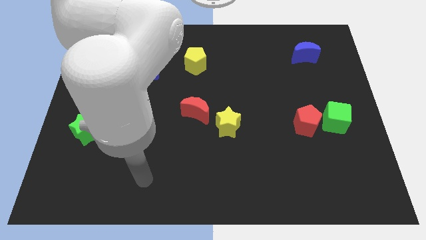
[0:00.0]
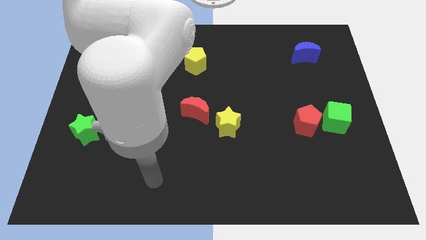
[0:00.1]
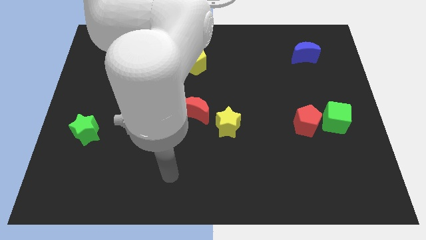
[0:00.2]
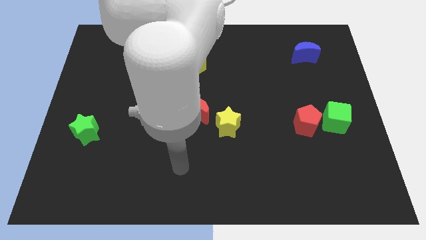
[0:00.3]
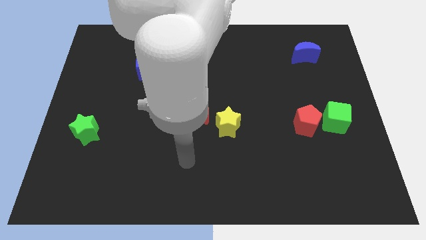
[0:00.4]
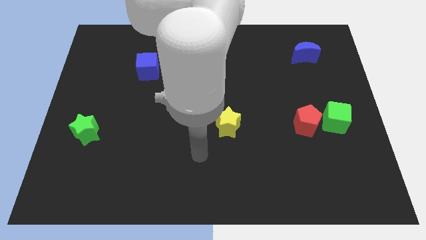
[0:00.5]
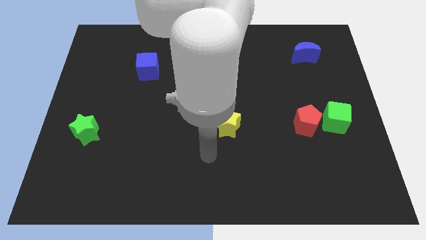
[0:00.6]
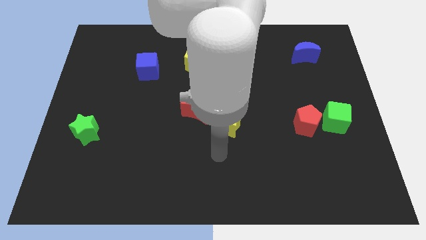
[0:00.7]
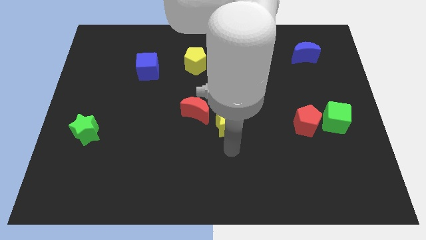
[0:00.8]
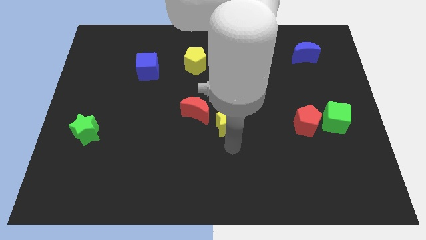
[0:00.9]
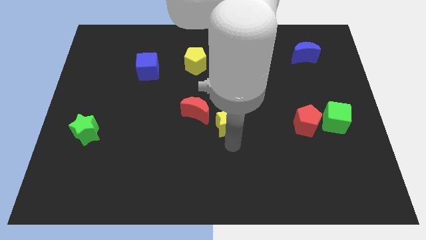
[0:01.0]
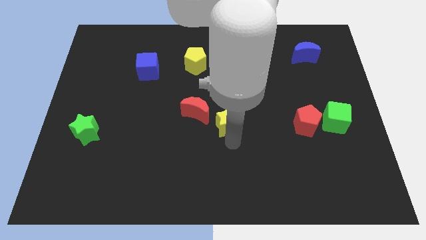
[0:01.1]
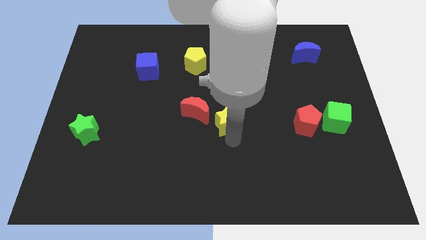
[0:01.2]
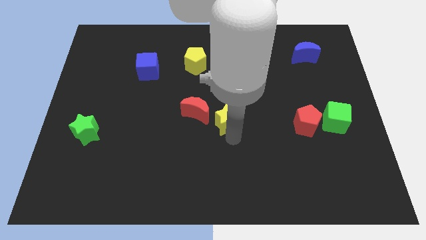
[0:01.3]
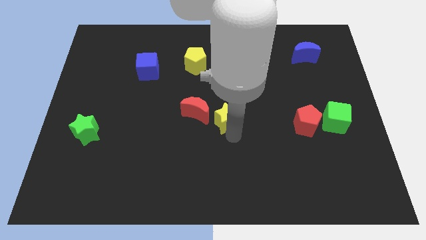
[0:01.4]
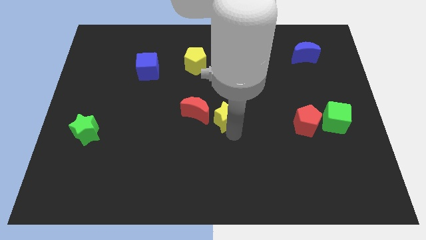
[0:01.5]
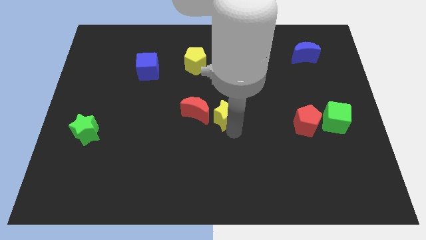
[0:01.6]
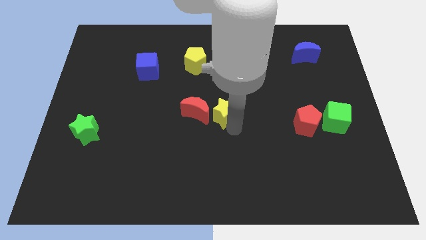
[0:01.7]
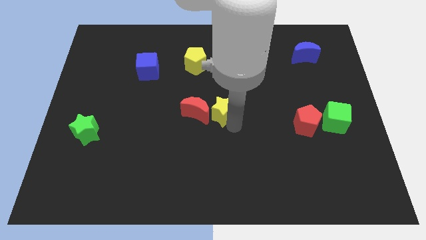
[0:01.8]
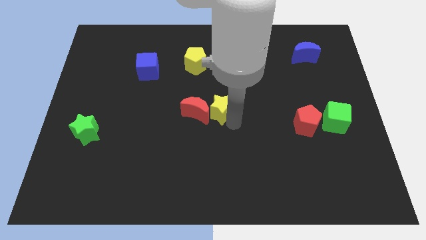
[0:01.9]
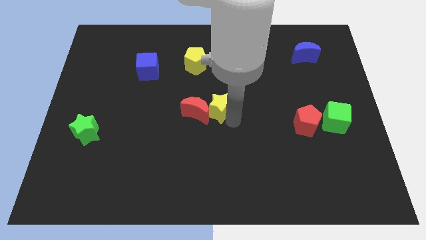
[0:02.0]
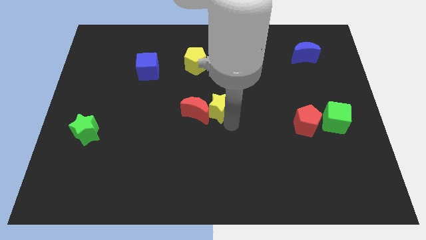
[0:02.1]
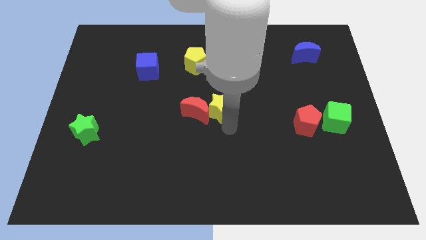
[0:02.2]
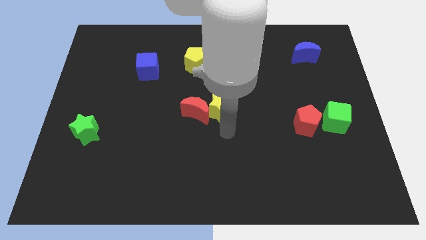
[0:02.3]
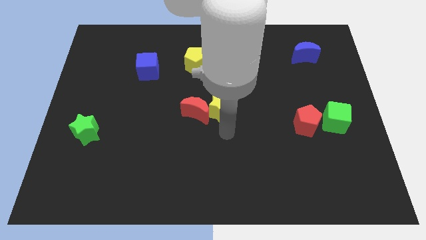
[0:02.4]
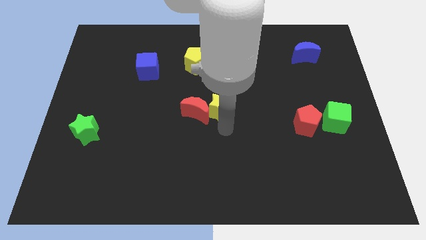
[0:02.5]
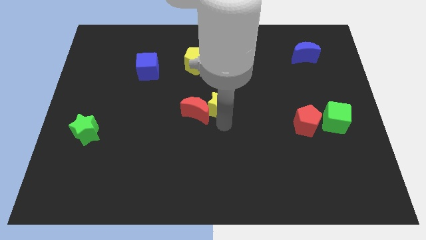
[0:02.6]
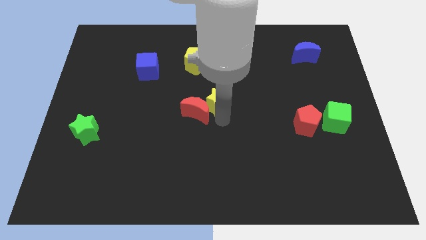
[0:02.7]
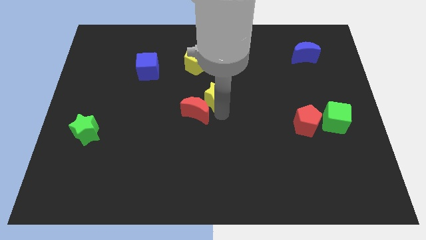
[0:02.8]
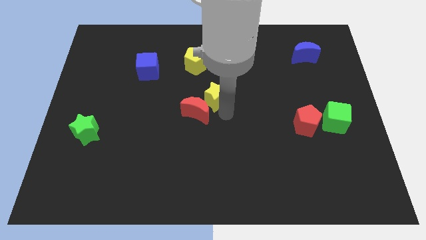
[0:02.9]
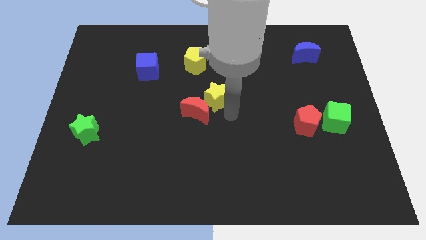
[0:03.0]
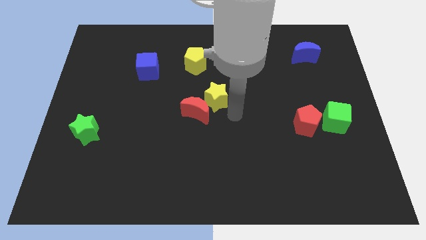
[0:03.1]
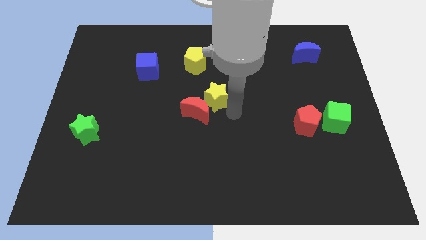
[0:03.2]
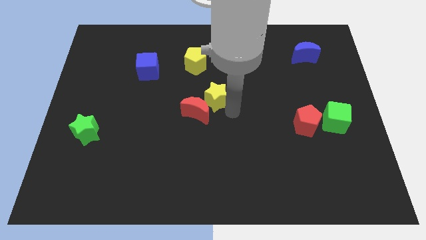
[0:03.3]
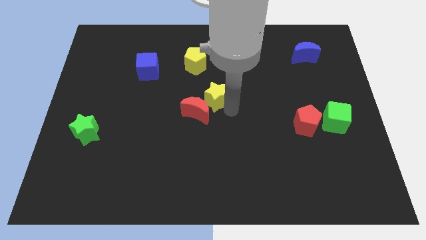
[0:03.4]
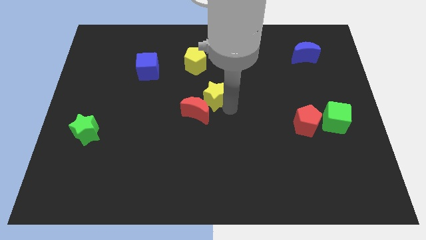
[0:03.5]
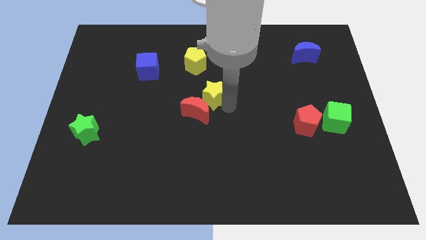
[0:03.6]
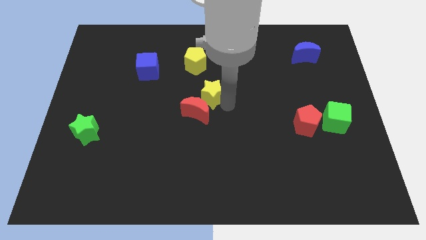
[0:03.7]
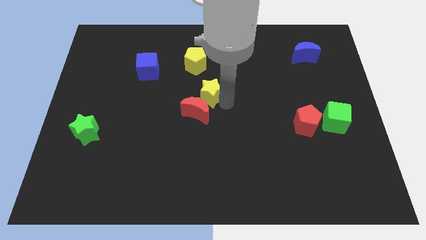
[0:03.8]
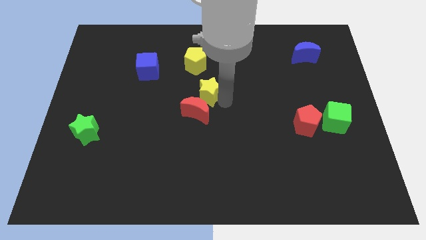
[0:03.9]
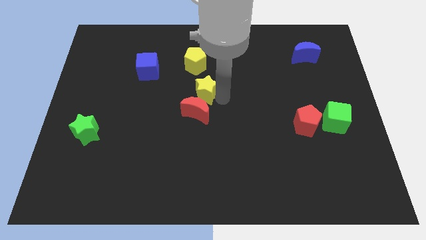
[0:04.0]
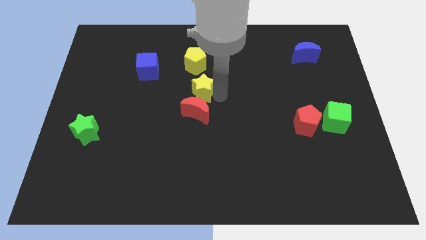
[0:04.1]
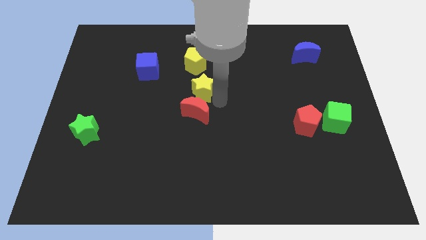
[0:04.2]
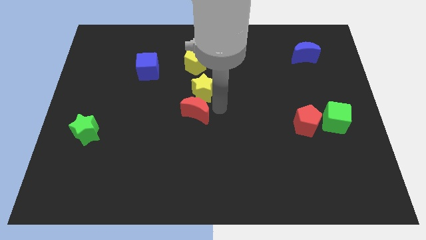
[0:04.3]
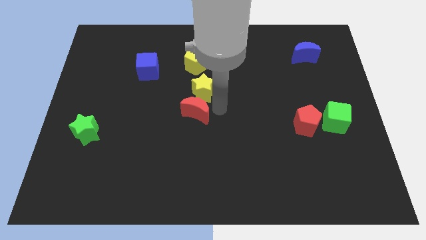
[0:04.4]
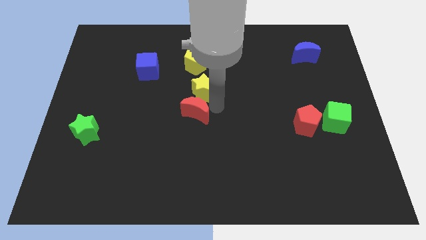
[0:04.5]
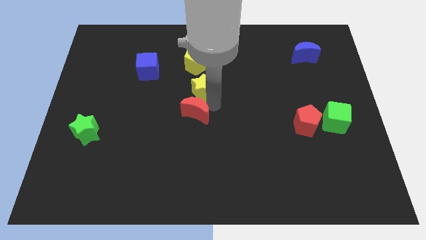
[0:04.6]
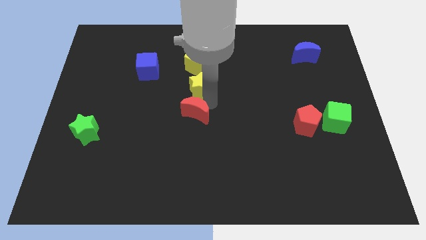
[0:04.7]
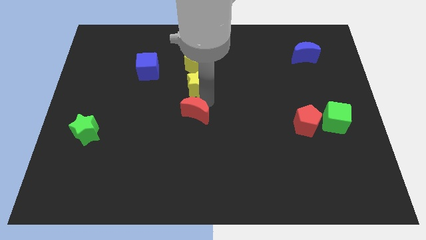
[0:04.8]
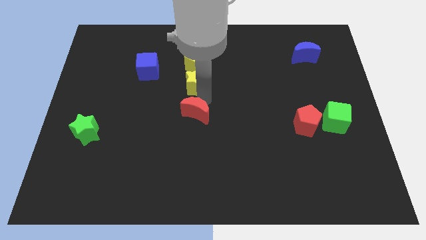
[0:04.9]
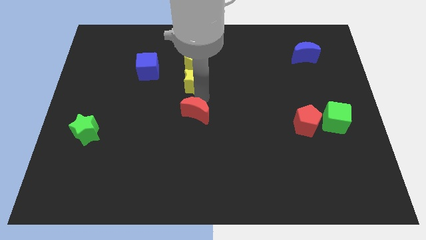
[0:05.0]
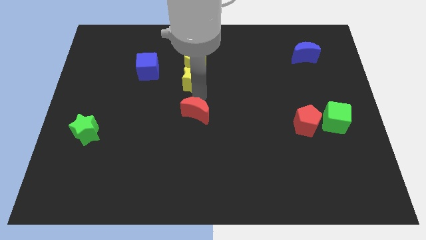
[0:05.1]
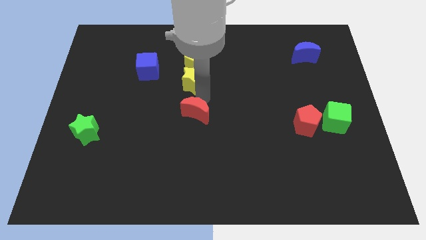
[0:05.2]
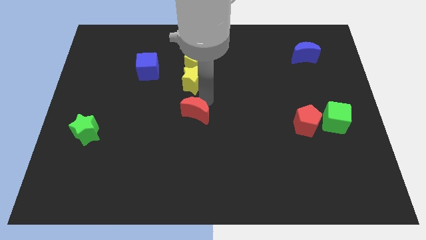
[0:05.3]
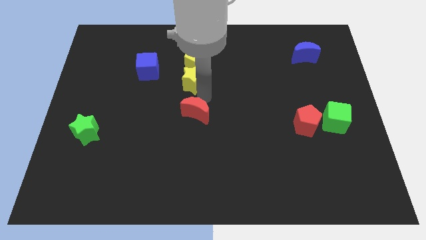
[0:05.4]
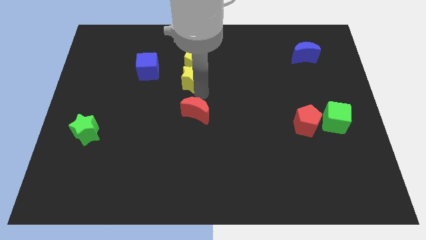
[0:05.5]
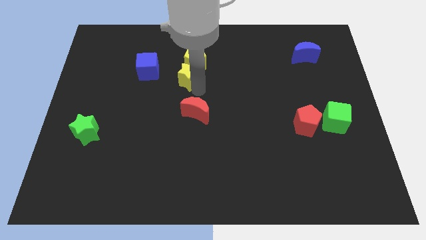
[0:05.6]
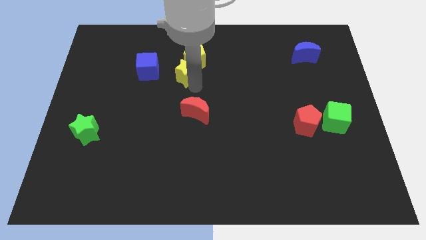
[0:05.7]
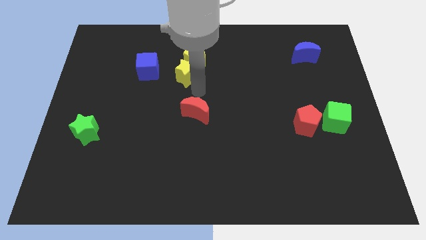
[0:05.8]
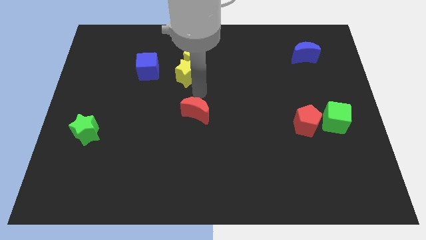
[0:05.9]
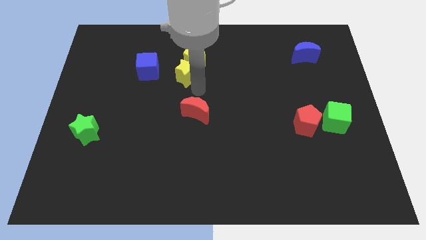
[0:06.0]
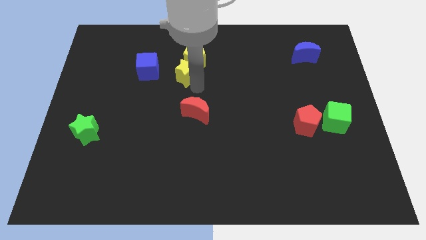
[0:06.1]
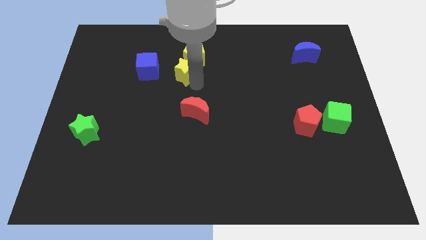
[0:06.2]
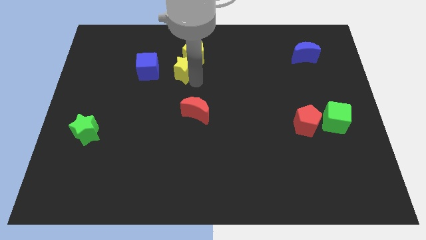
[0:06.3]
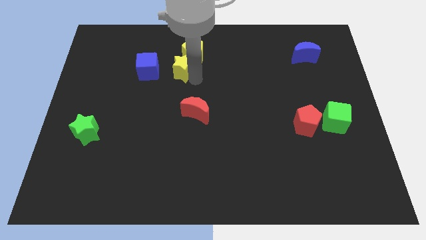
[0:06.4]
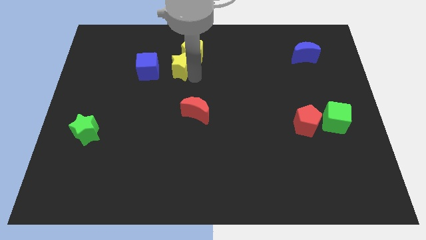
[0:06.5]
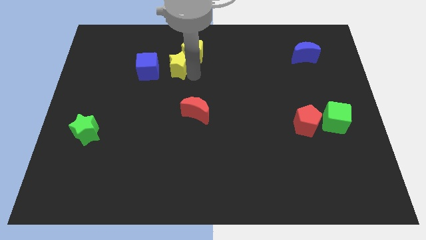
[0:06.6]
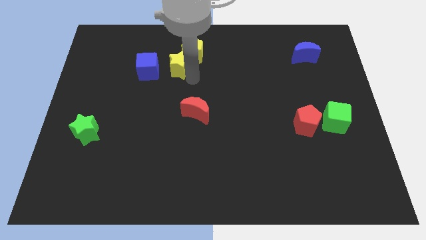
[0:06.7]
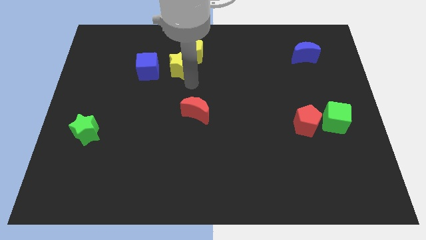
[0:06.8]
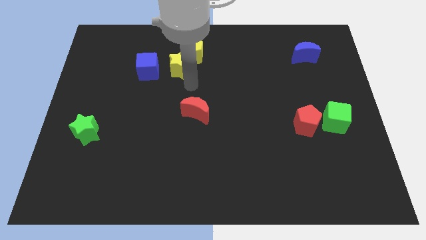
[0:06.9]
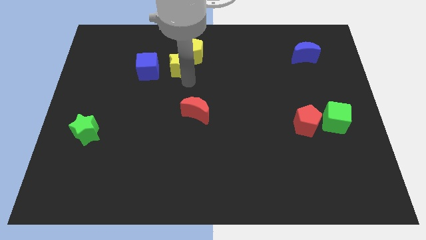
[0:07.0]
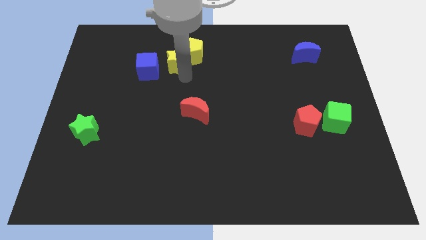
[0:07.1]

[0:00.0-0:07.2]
move the yellow star diagonally up and to the right of the blue cube
